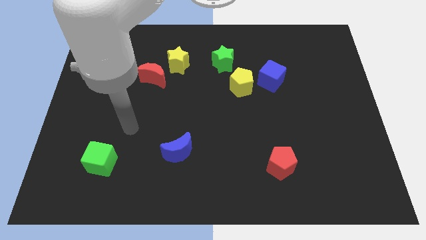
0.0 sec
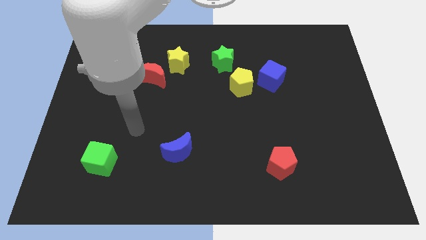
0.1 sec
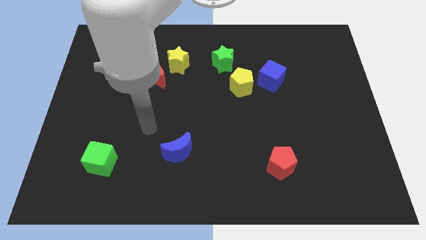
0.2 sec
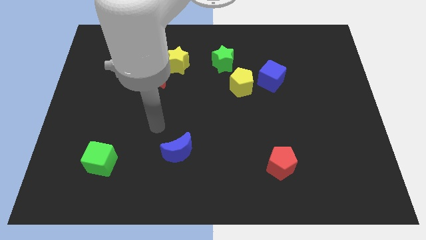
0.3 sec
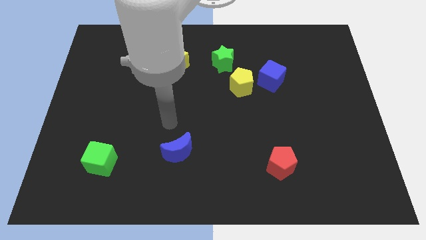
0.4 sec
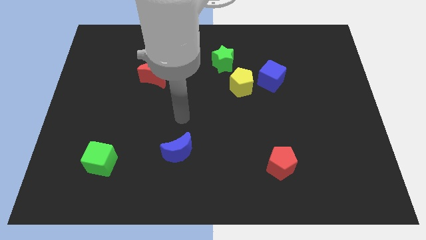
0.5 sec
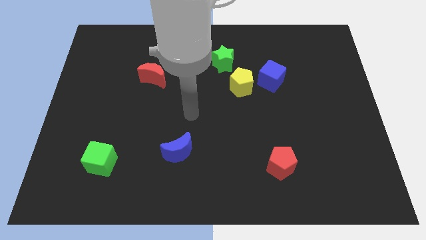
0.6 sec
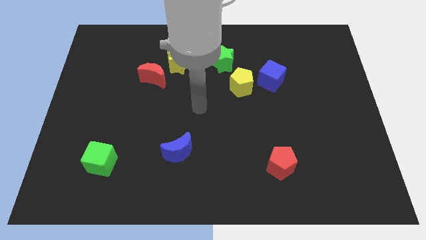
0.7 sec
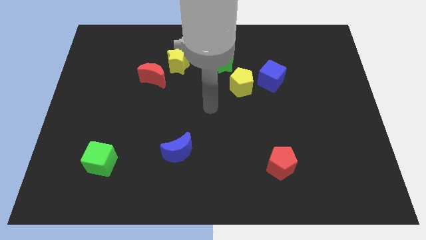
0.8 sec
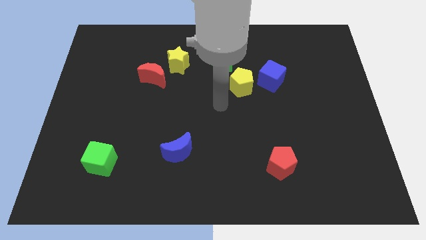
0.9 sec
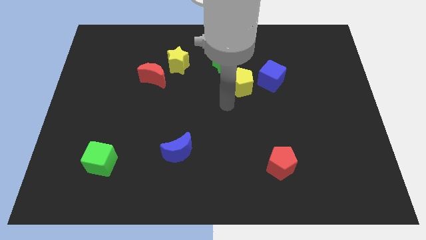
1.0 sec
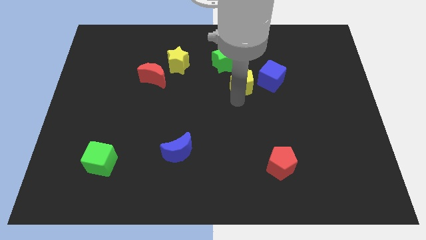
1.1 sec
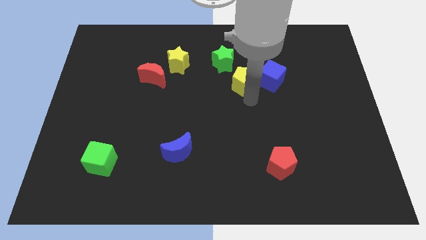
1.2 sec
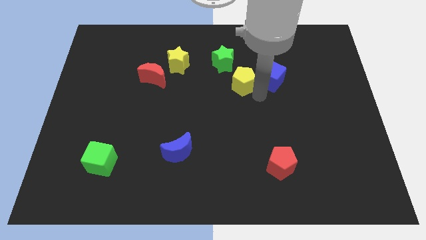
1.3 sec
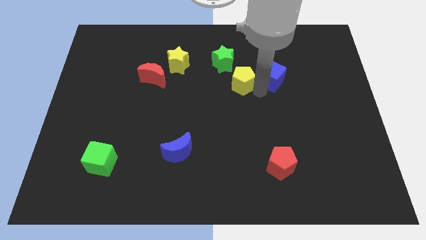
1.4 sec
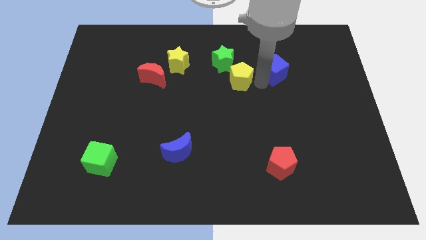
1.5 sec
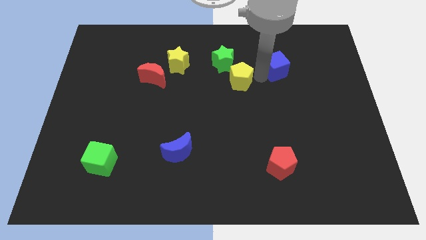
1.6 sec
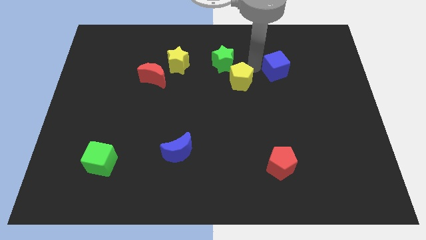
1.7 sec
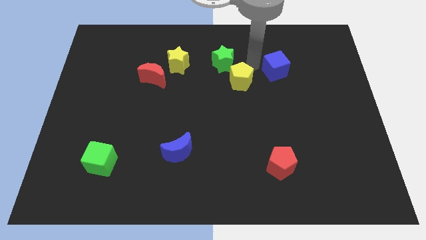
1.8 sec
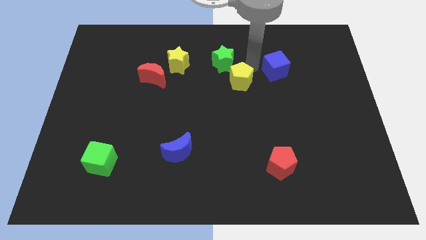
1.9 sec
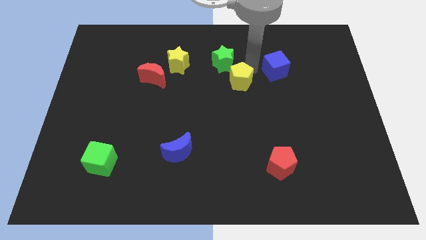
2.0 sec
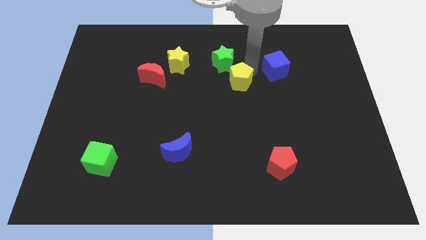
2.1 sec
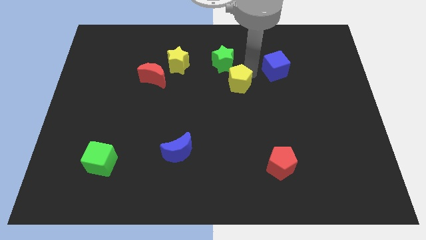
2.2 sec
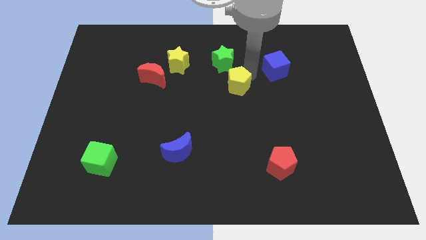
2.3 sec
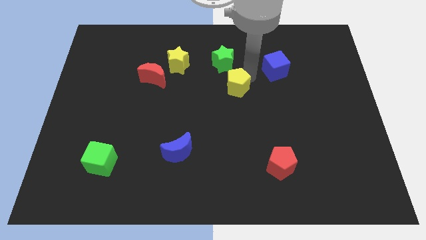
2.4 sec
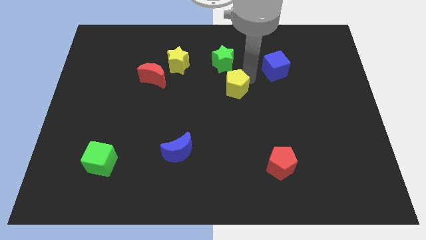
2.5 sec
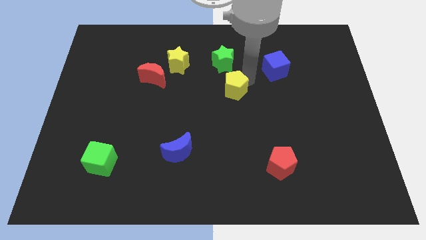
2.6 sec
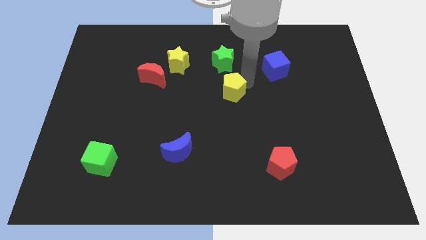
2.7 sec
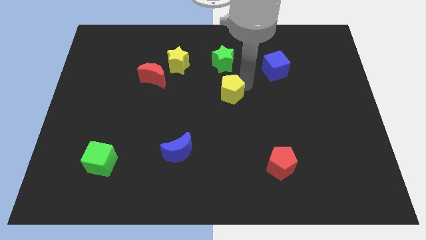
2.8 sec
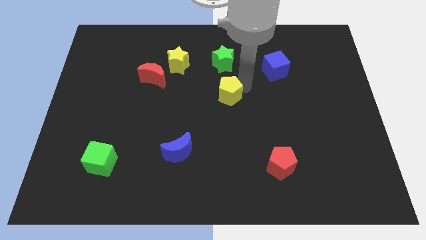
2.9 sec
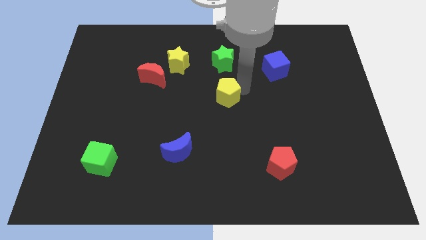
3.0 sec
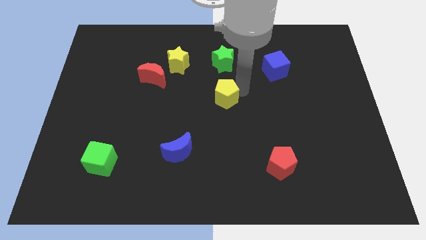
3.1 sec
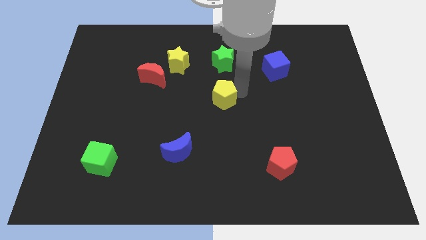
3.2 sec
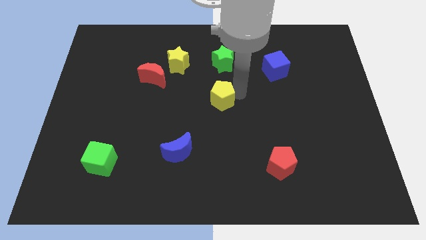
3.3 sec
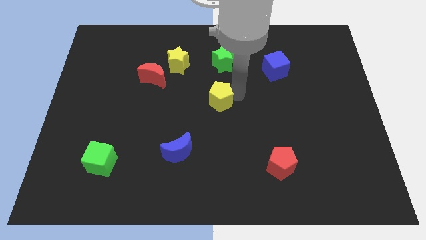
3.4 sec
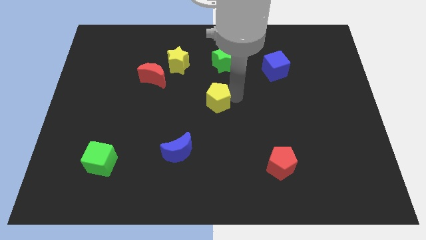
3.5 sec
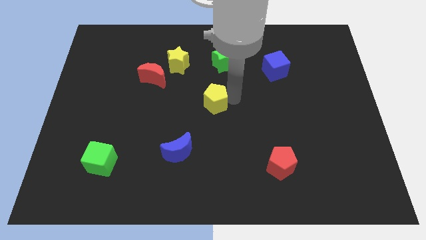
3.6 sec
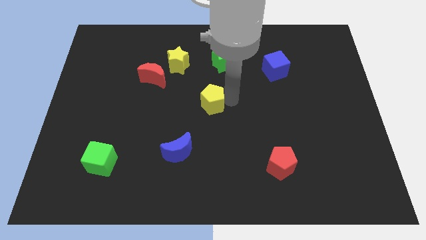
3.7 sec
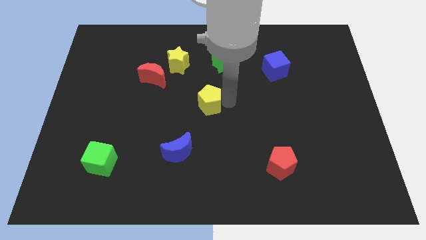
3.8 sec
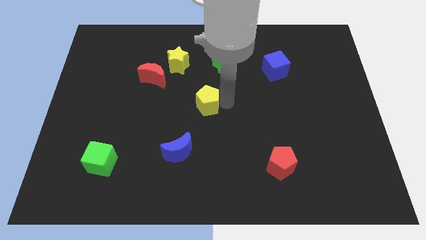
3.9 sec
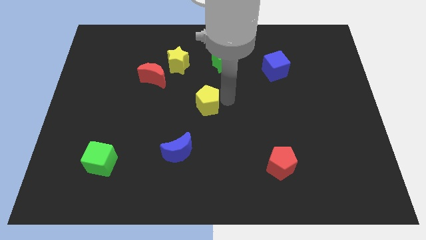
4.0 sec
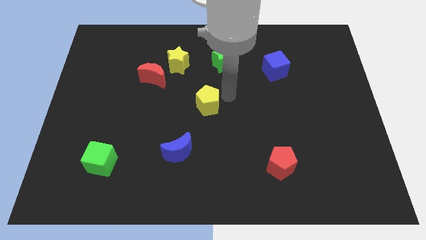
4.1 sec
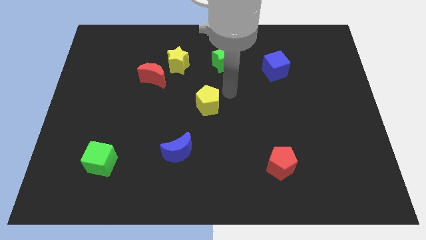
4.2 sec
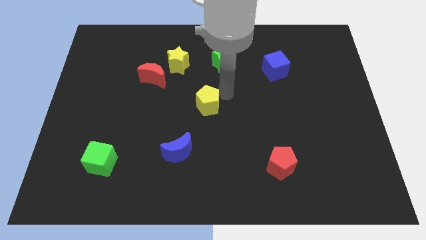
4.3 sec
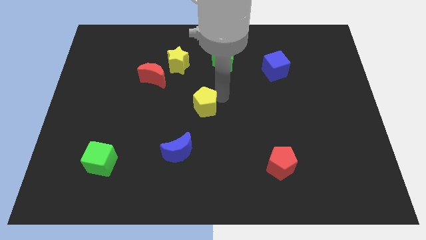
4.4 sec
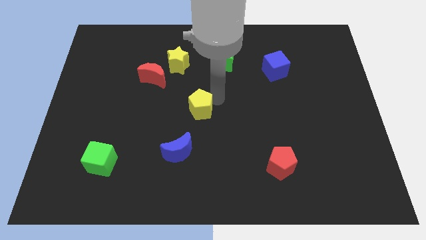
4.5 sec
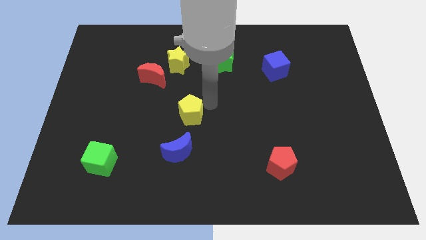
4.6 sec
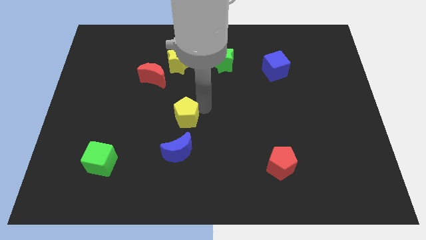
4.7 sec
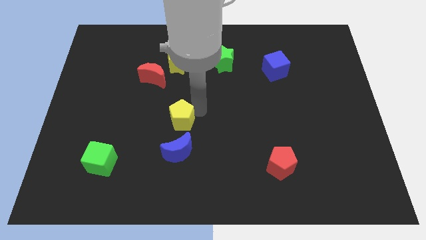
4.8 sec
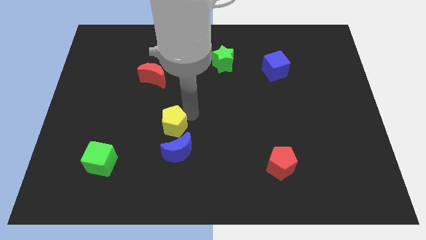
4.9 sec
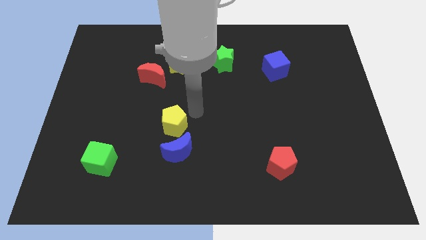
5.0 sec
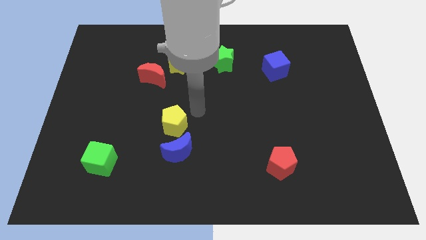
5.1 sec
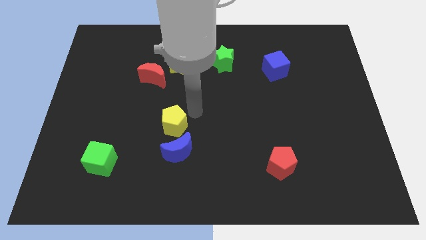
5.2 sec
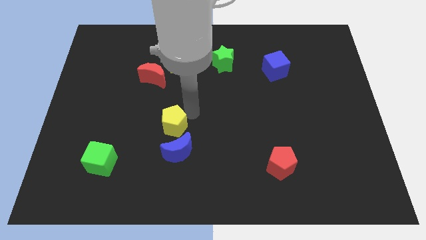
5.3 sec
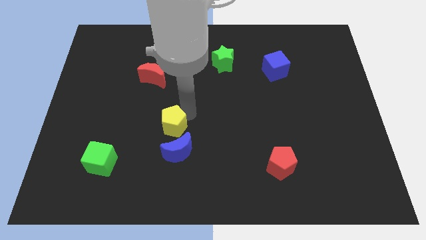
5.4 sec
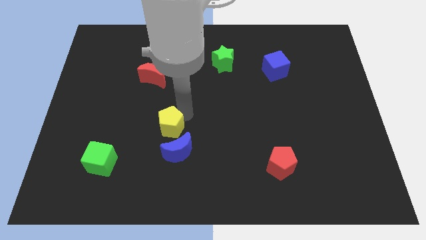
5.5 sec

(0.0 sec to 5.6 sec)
push the yellow pentagon diagonally down and to the left

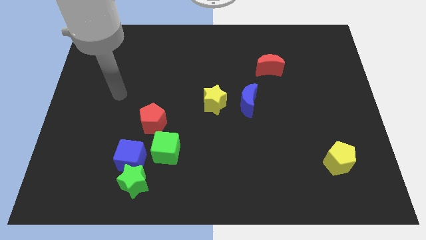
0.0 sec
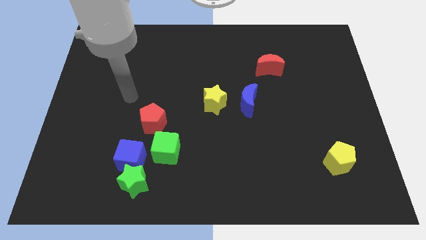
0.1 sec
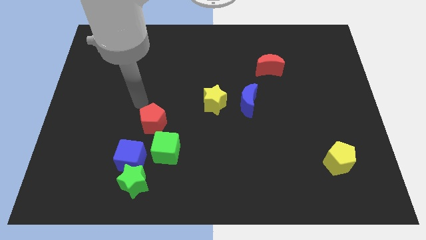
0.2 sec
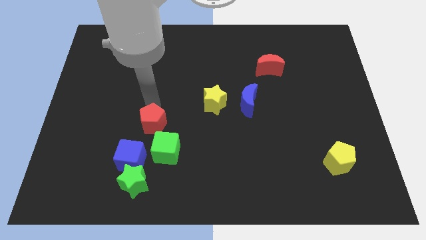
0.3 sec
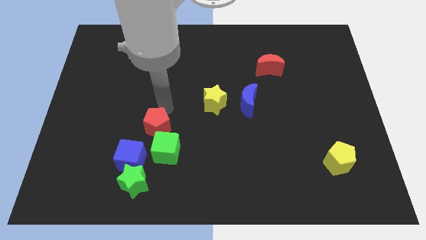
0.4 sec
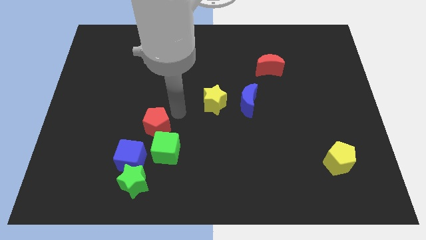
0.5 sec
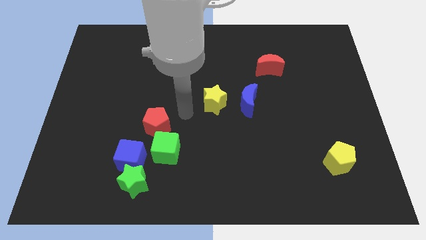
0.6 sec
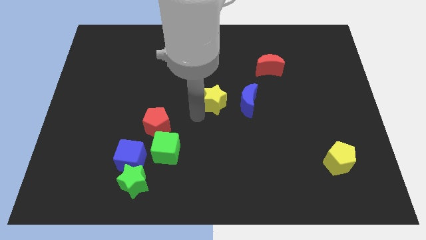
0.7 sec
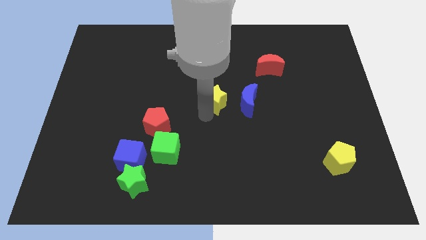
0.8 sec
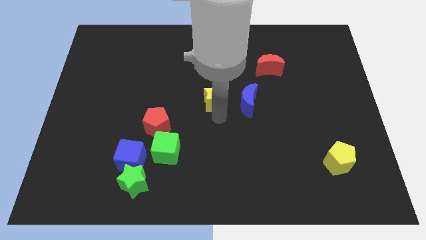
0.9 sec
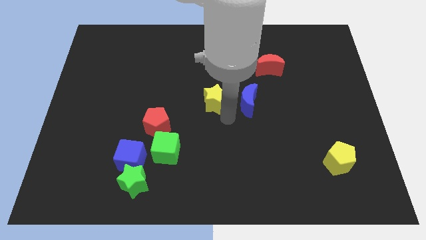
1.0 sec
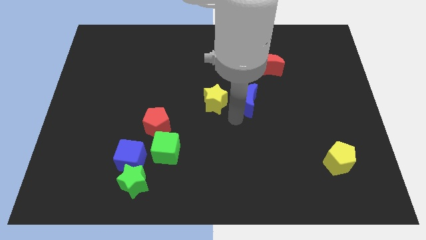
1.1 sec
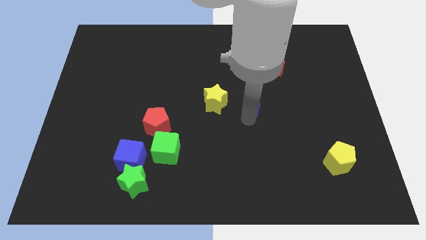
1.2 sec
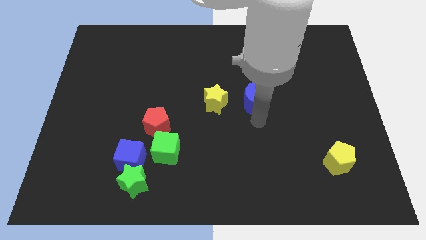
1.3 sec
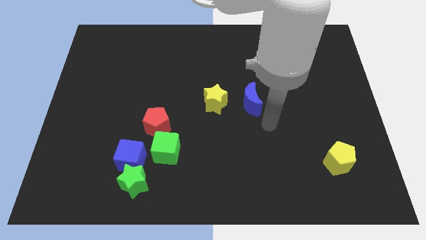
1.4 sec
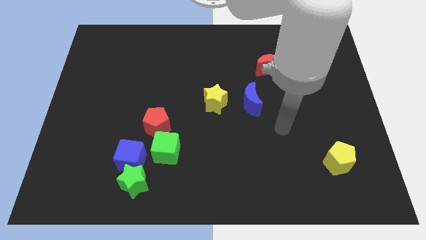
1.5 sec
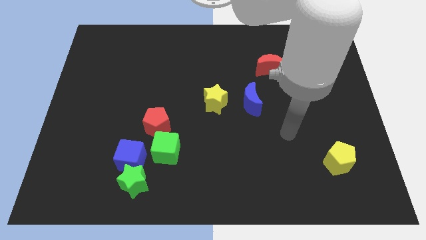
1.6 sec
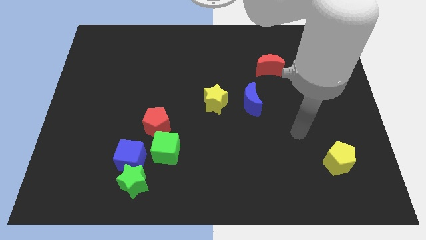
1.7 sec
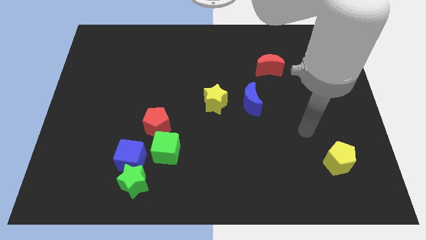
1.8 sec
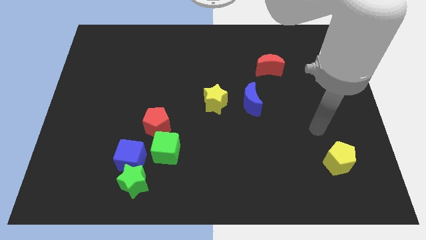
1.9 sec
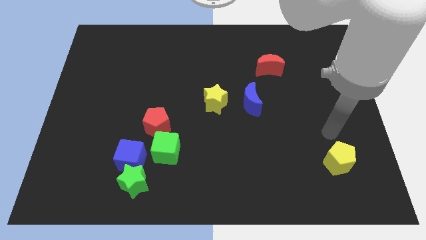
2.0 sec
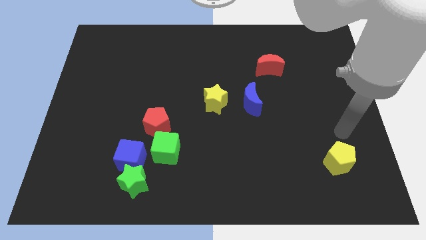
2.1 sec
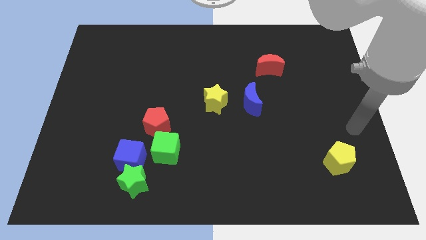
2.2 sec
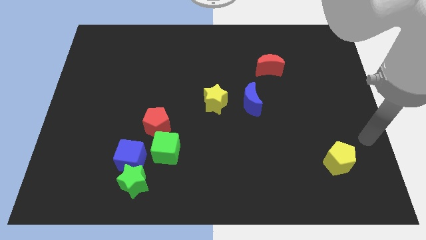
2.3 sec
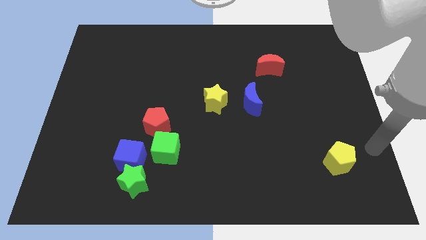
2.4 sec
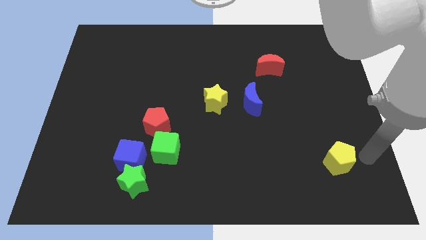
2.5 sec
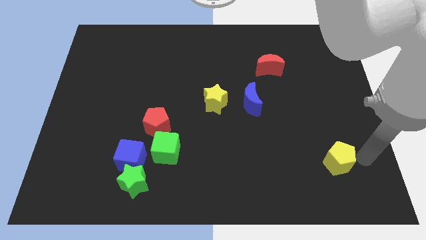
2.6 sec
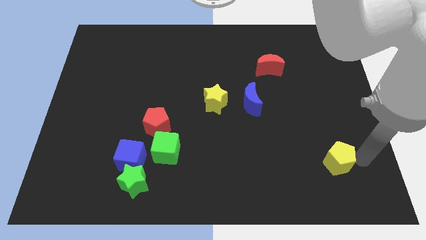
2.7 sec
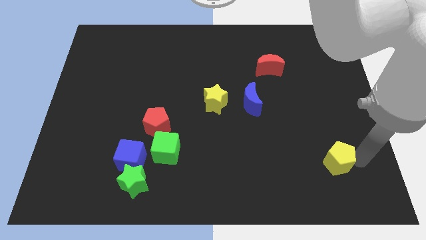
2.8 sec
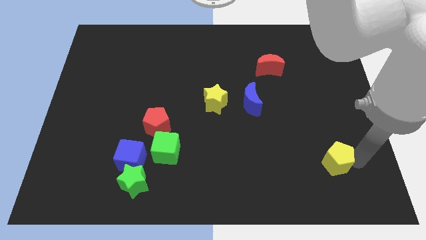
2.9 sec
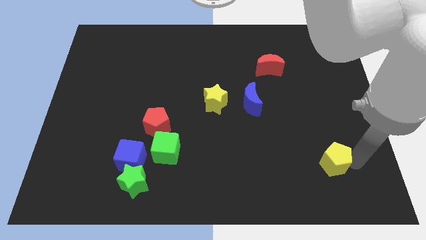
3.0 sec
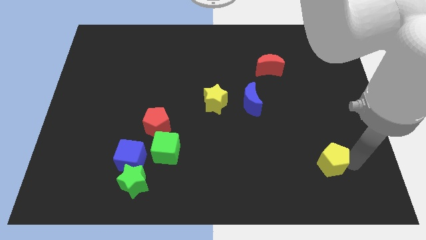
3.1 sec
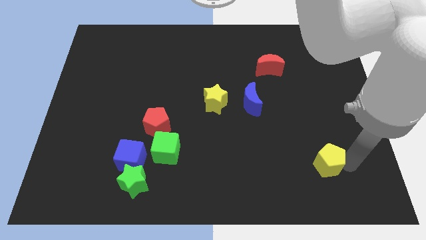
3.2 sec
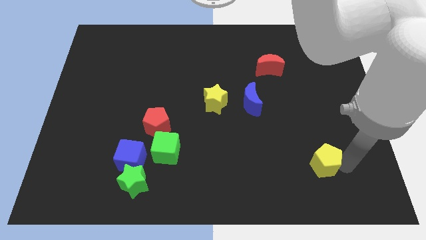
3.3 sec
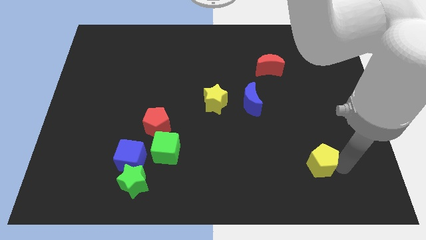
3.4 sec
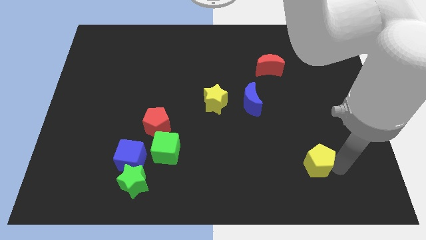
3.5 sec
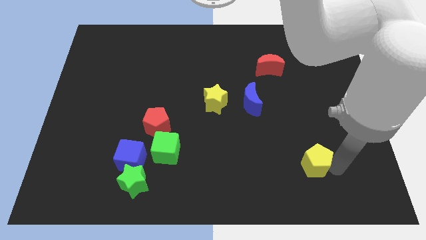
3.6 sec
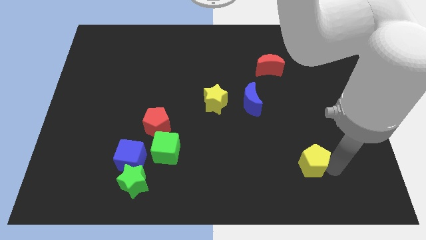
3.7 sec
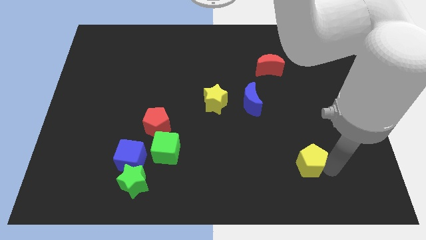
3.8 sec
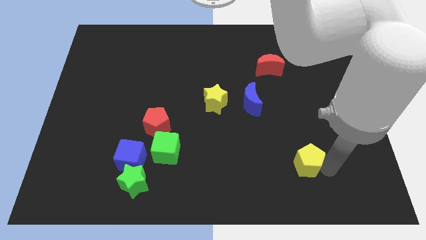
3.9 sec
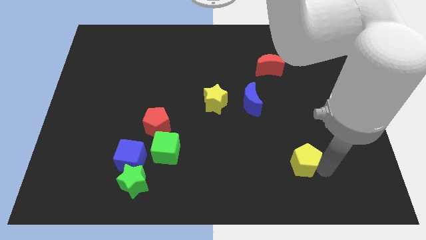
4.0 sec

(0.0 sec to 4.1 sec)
slide the yellow pentagon slightly to the left
